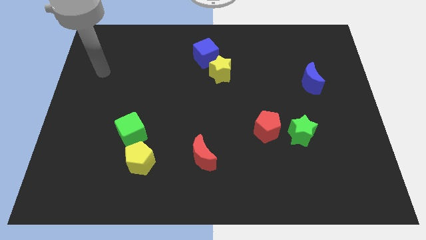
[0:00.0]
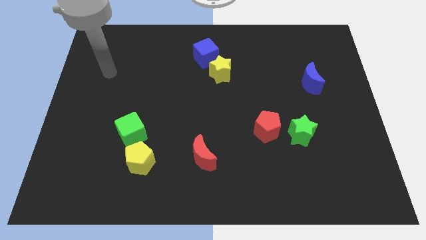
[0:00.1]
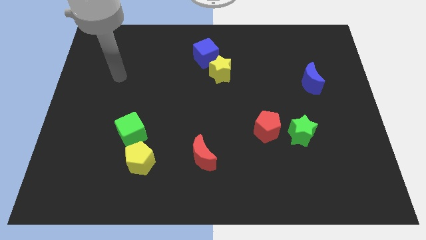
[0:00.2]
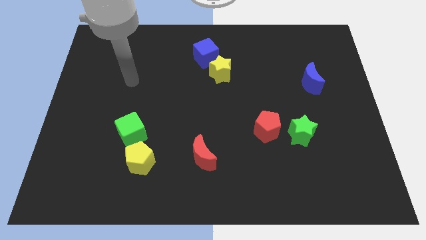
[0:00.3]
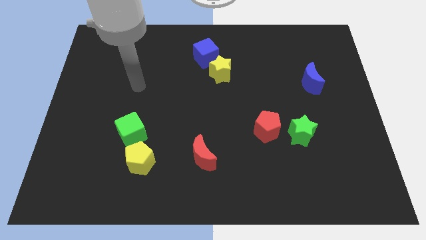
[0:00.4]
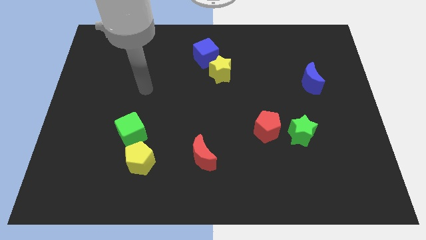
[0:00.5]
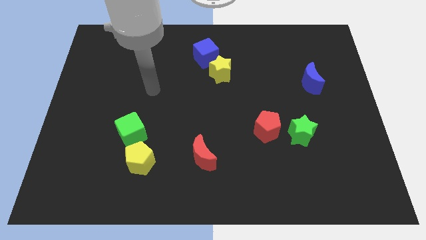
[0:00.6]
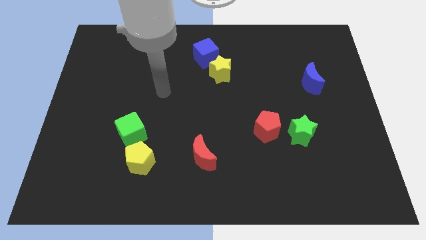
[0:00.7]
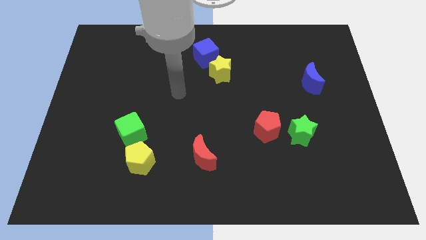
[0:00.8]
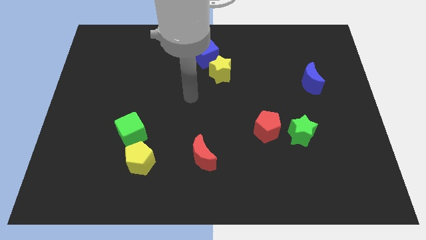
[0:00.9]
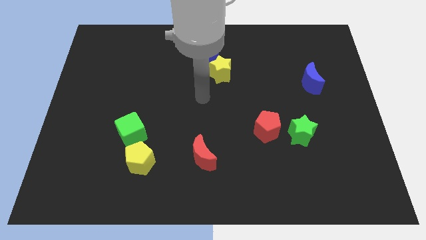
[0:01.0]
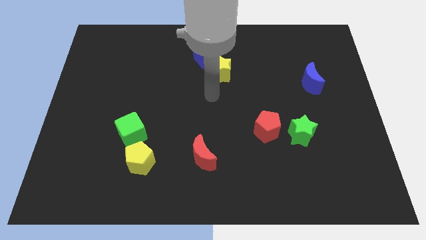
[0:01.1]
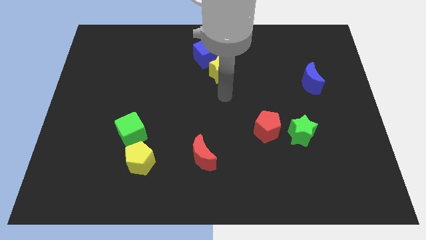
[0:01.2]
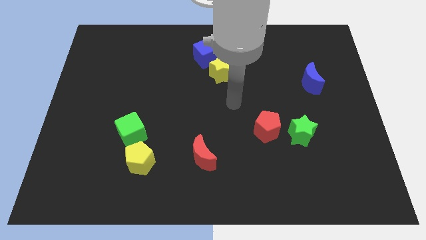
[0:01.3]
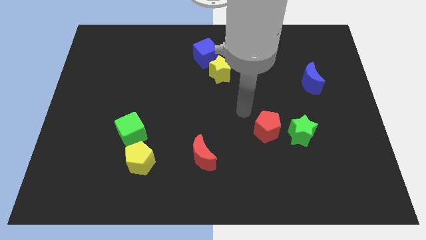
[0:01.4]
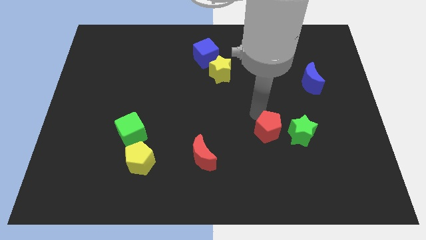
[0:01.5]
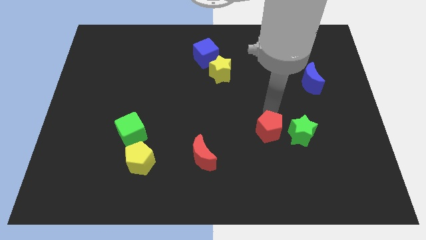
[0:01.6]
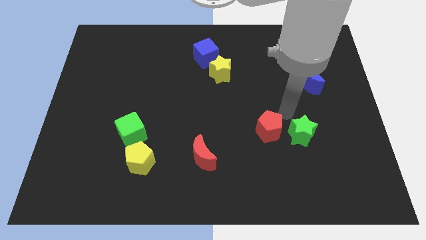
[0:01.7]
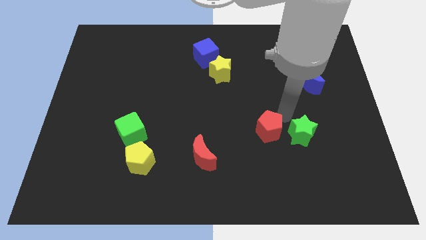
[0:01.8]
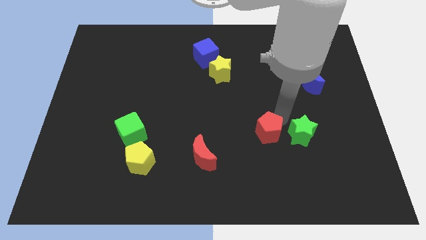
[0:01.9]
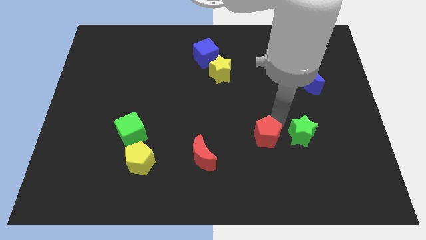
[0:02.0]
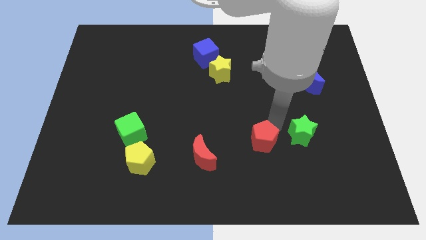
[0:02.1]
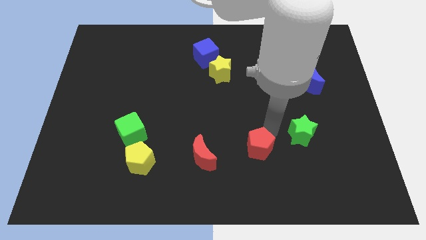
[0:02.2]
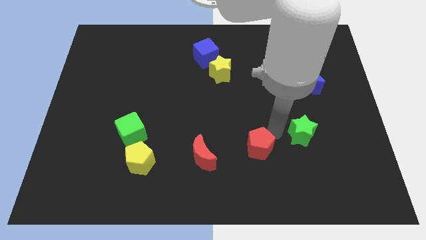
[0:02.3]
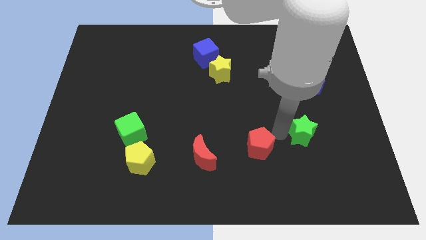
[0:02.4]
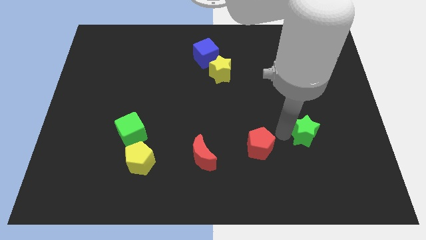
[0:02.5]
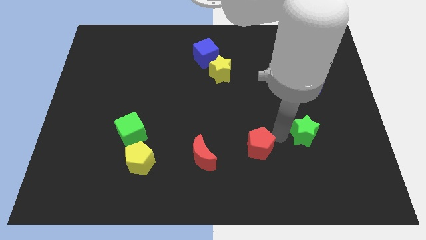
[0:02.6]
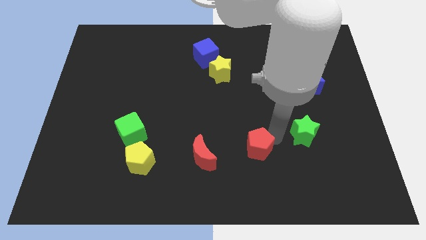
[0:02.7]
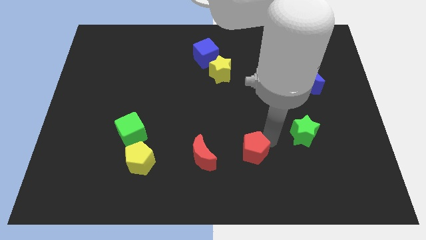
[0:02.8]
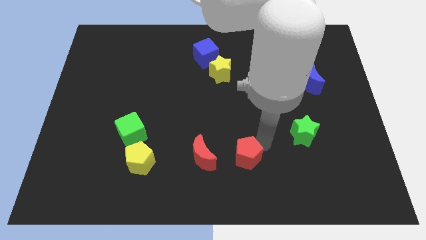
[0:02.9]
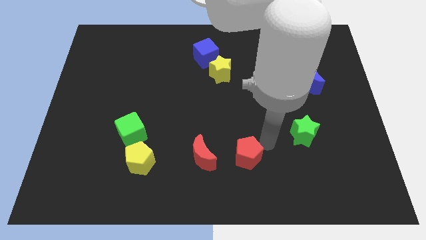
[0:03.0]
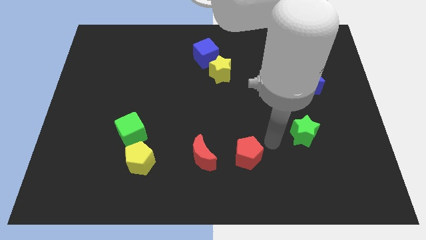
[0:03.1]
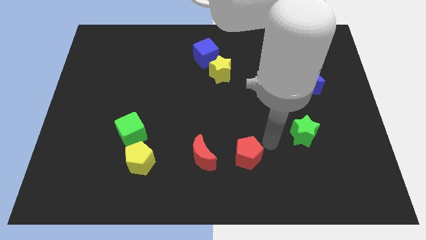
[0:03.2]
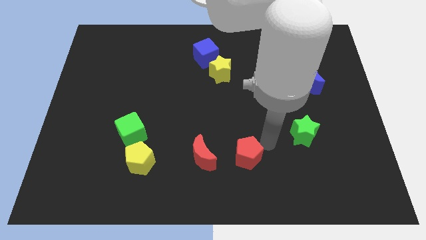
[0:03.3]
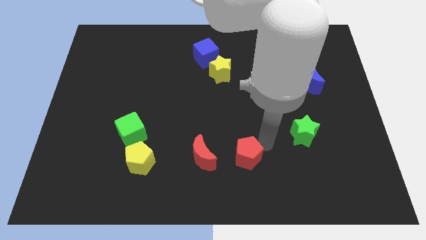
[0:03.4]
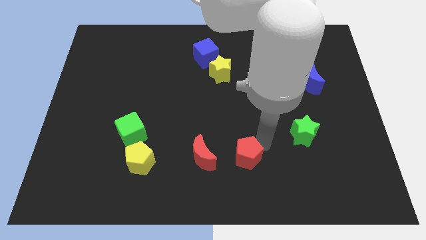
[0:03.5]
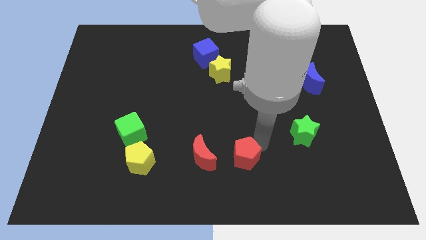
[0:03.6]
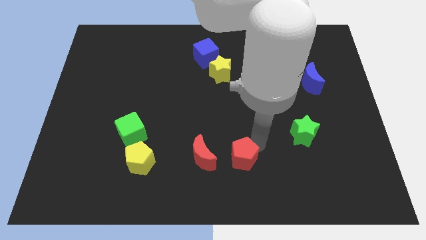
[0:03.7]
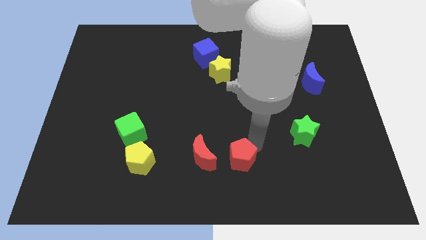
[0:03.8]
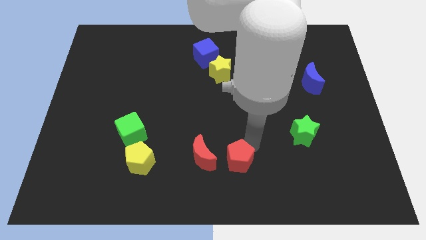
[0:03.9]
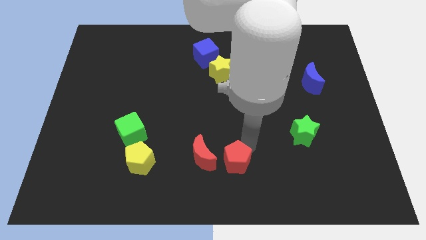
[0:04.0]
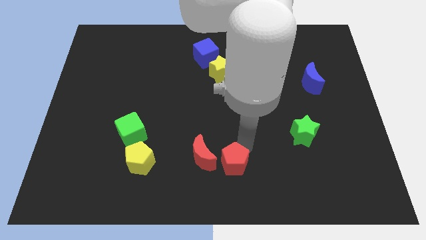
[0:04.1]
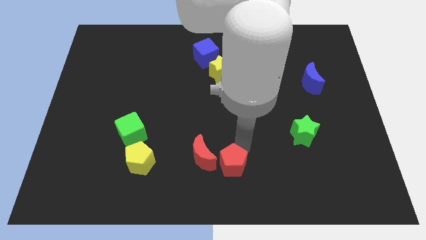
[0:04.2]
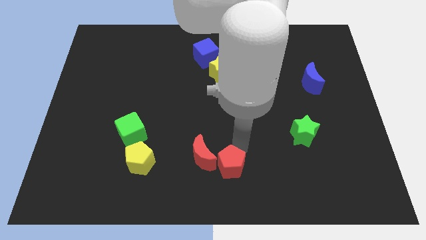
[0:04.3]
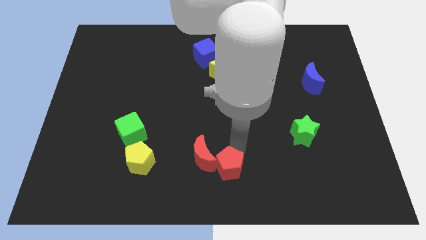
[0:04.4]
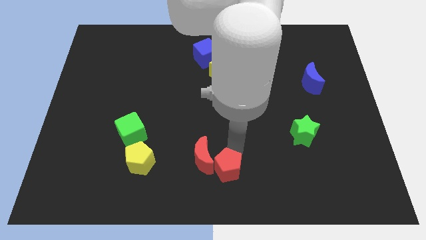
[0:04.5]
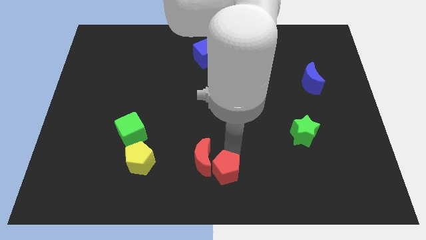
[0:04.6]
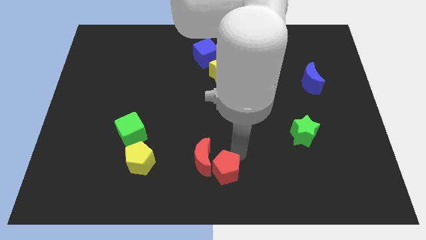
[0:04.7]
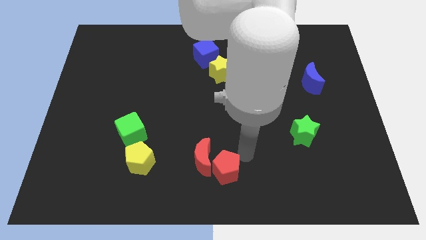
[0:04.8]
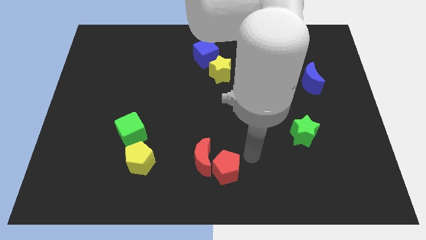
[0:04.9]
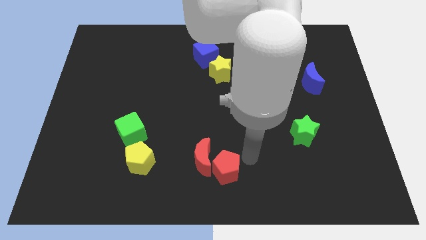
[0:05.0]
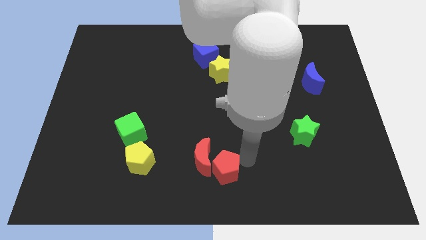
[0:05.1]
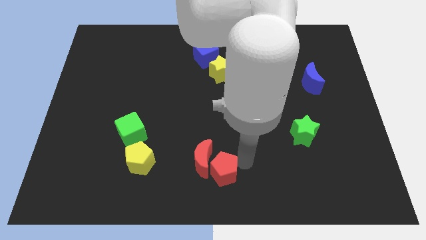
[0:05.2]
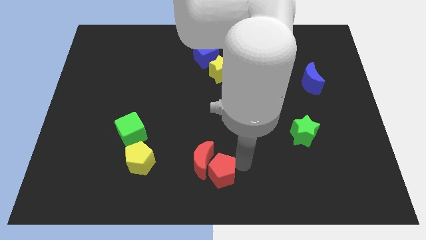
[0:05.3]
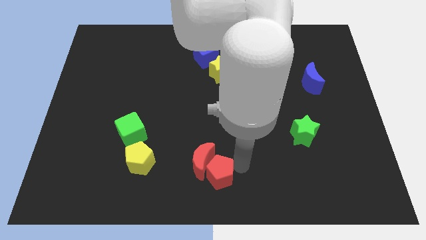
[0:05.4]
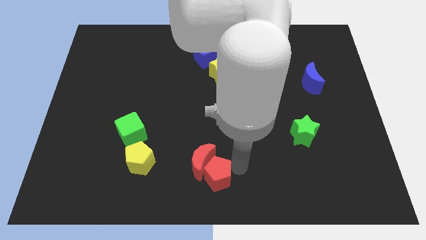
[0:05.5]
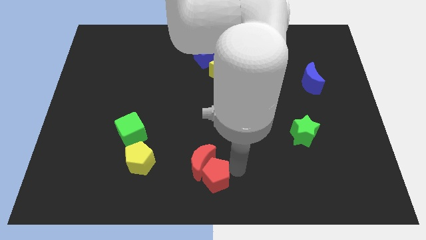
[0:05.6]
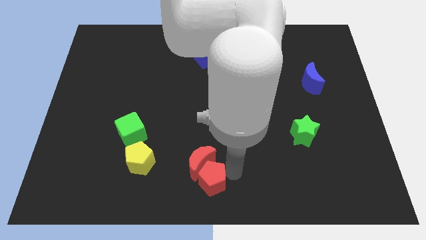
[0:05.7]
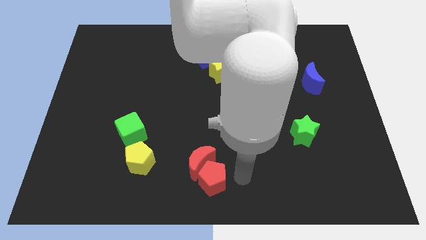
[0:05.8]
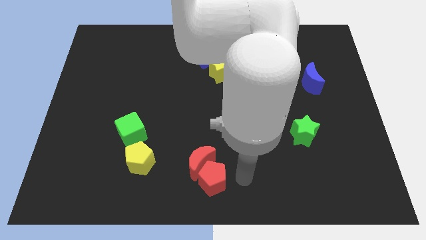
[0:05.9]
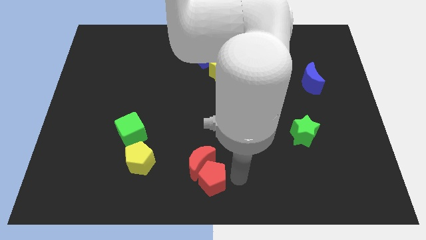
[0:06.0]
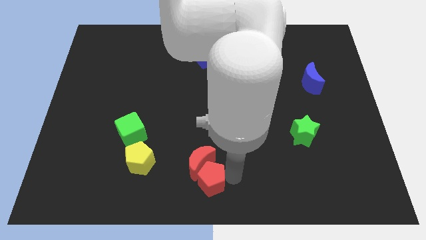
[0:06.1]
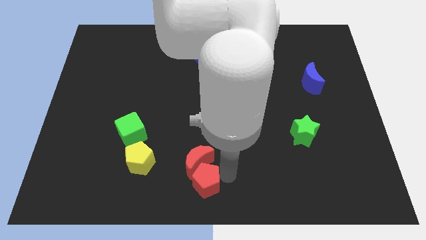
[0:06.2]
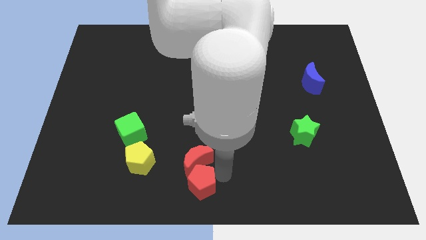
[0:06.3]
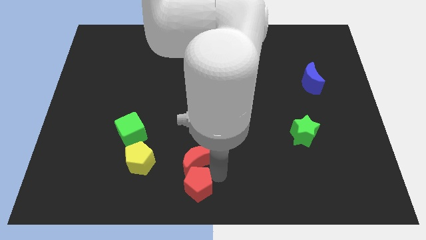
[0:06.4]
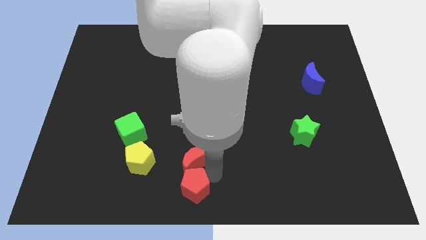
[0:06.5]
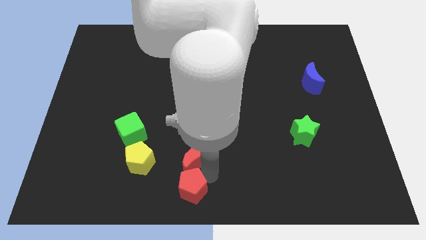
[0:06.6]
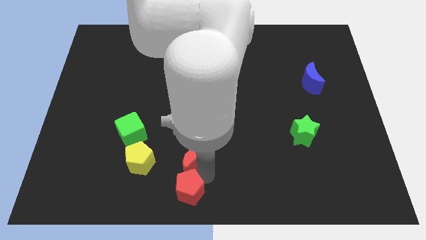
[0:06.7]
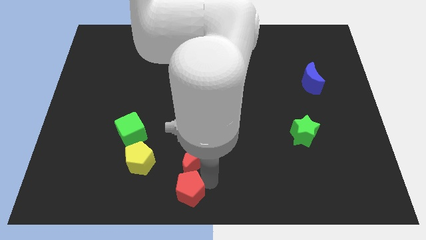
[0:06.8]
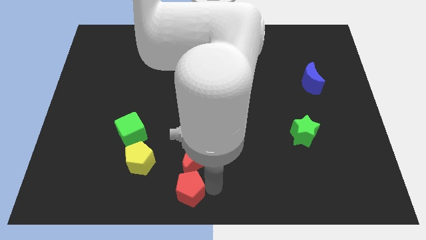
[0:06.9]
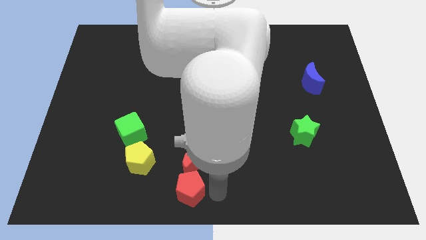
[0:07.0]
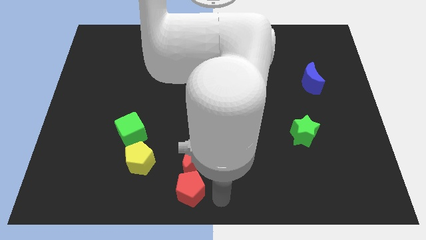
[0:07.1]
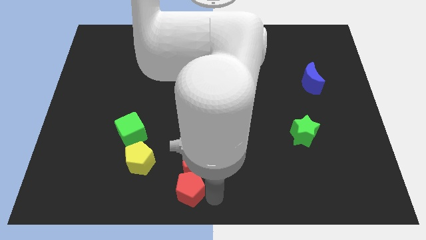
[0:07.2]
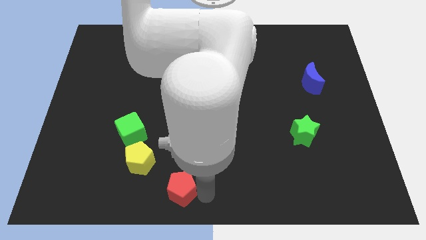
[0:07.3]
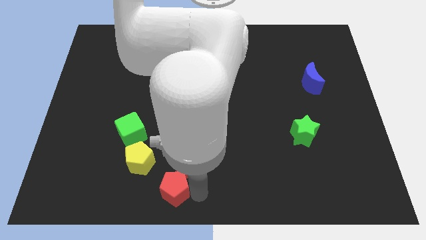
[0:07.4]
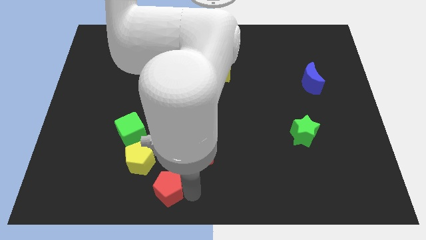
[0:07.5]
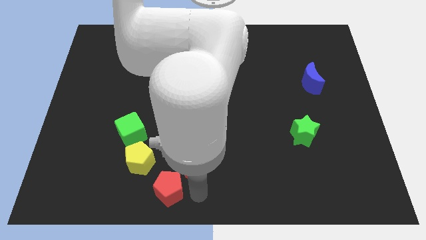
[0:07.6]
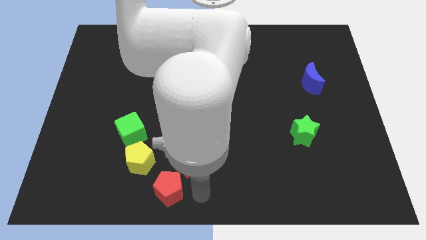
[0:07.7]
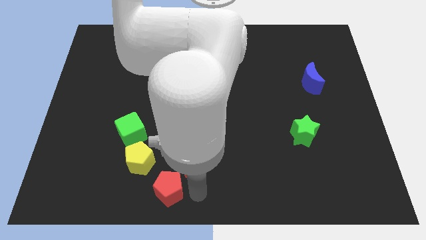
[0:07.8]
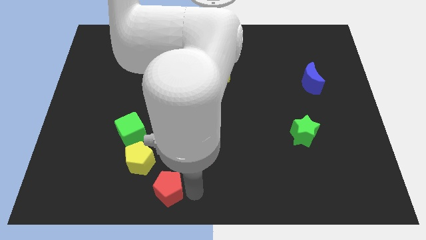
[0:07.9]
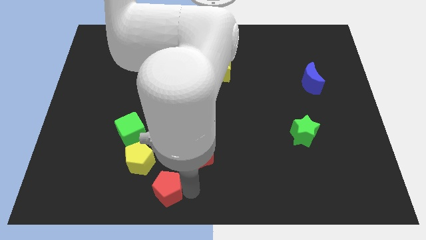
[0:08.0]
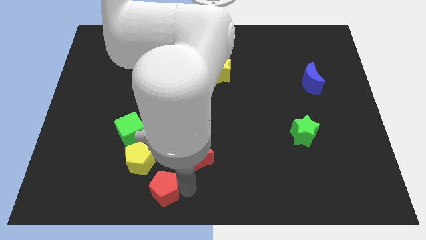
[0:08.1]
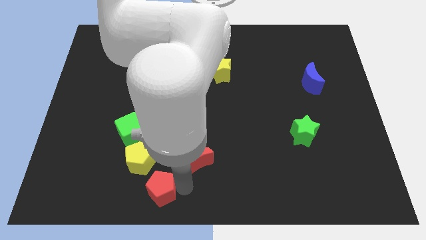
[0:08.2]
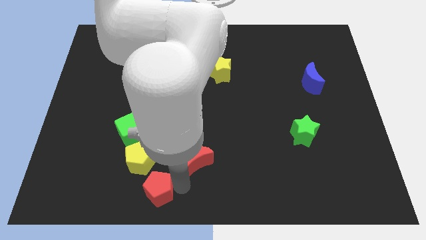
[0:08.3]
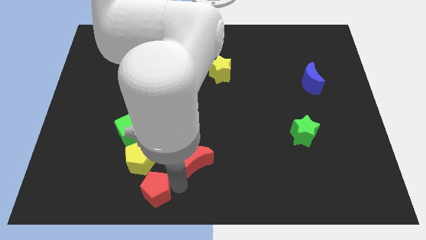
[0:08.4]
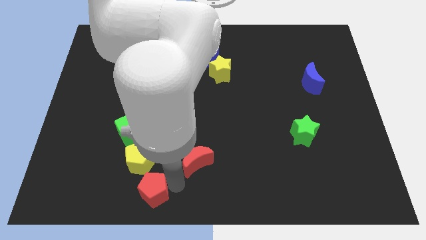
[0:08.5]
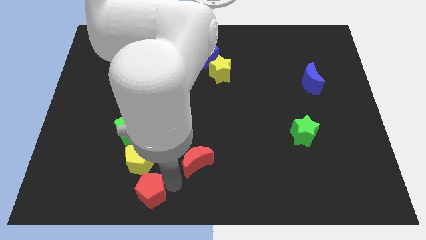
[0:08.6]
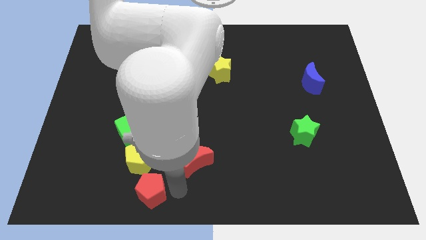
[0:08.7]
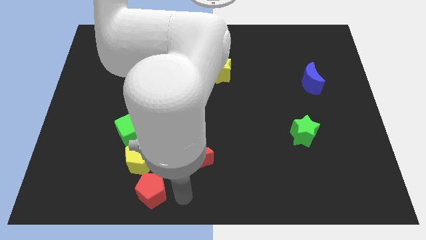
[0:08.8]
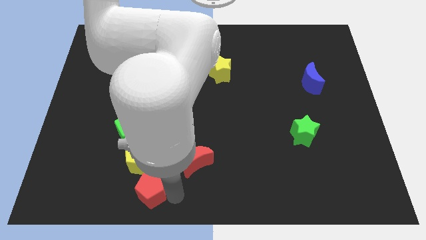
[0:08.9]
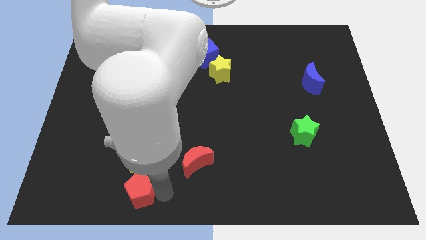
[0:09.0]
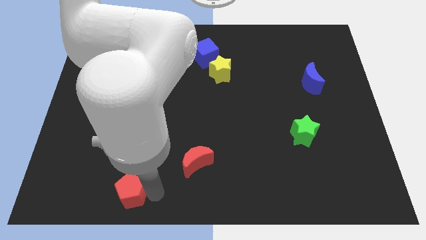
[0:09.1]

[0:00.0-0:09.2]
move the red pentagon to the bottom left of the yellow pentagon
